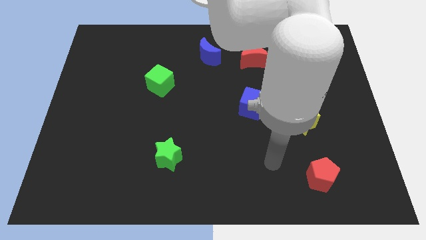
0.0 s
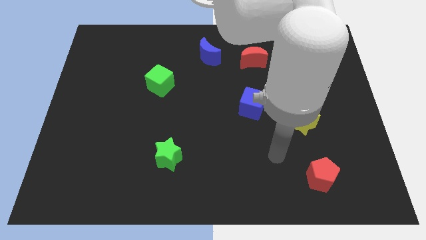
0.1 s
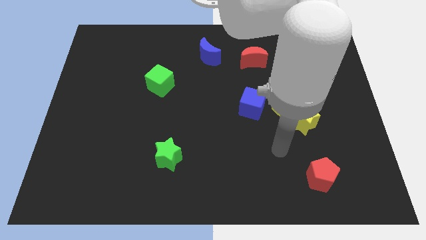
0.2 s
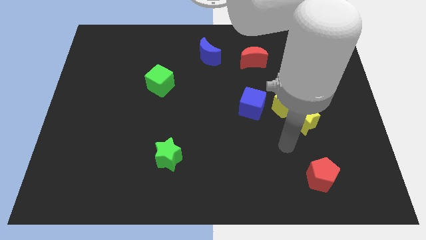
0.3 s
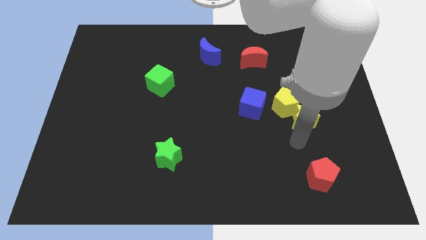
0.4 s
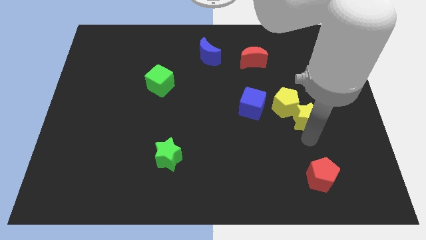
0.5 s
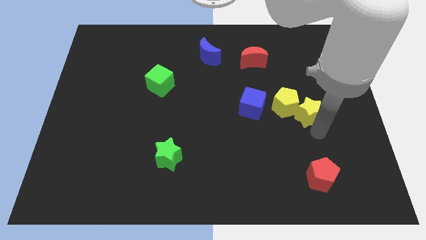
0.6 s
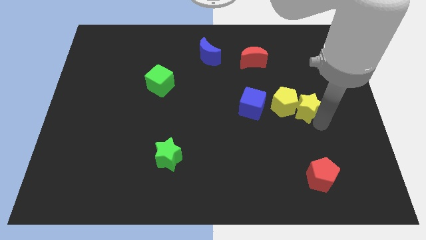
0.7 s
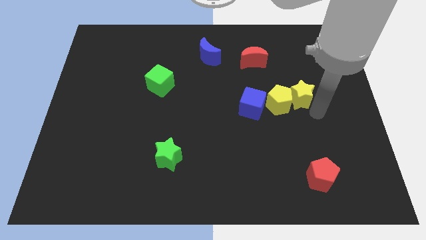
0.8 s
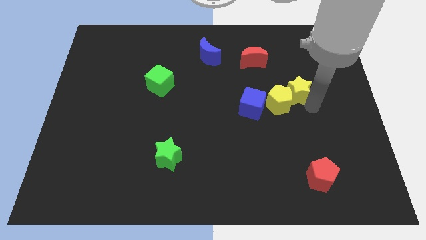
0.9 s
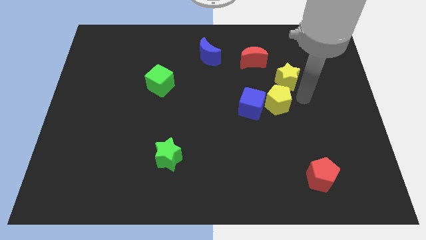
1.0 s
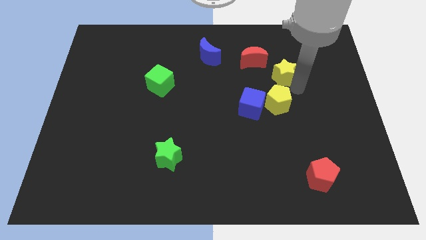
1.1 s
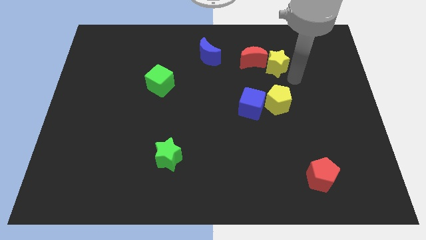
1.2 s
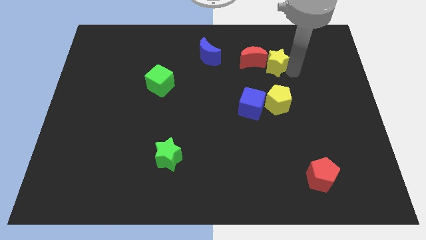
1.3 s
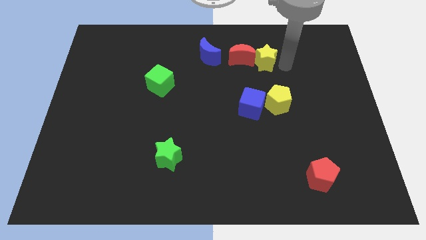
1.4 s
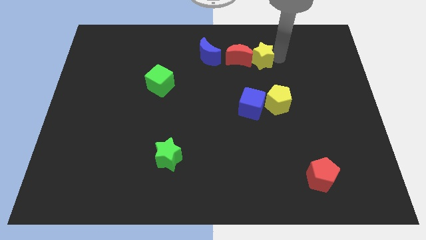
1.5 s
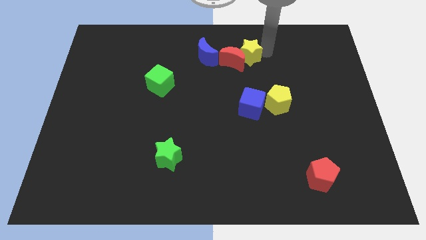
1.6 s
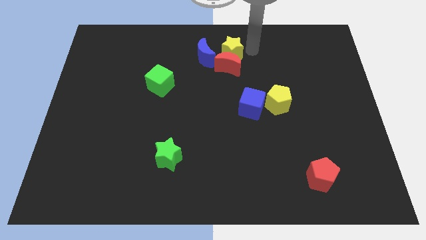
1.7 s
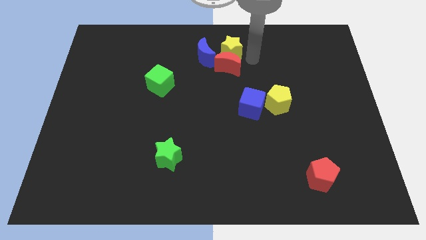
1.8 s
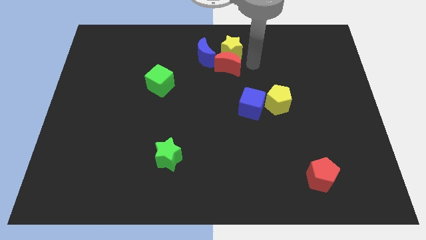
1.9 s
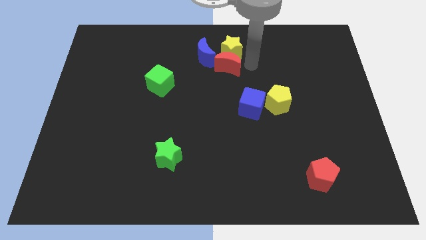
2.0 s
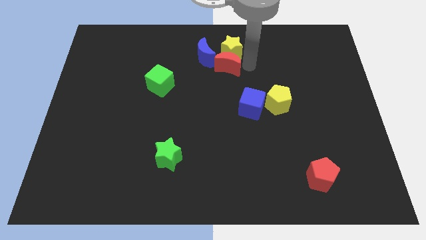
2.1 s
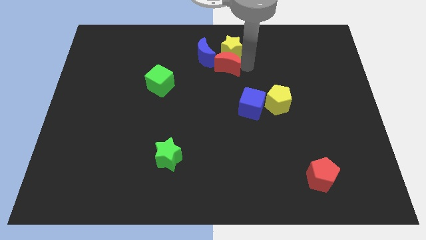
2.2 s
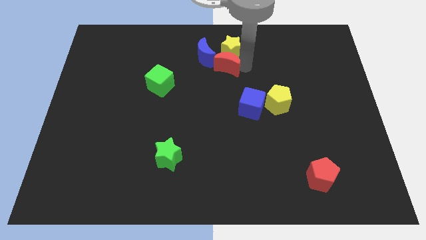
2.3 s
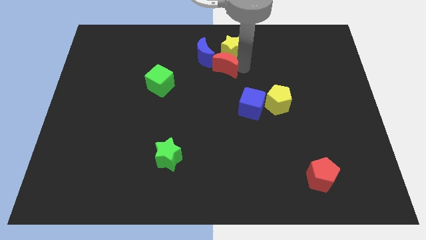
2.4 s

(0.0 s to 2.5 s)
slide the red moon somewhat left

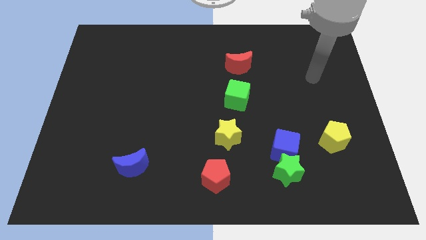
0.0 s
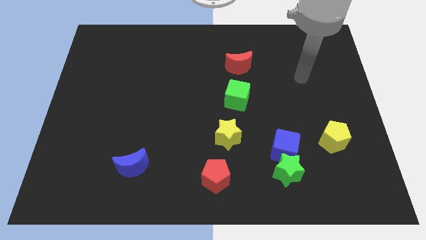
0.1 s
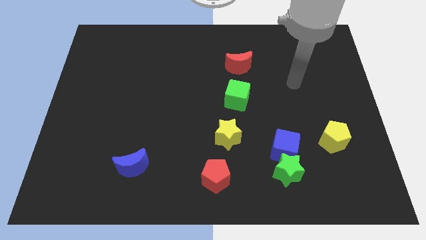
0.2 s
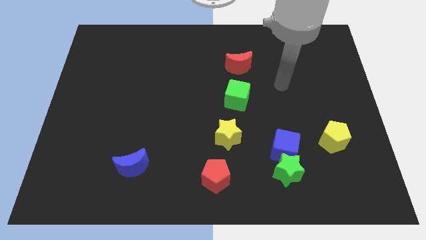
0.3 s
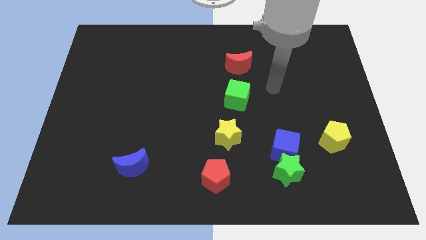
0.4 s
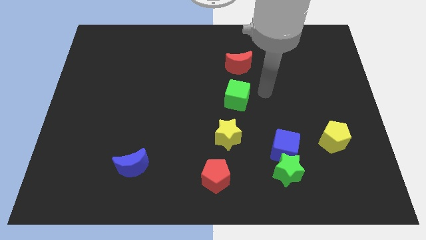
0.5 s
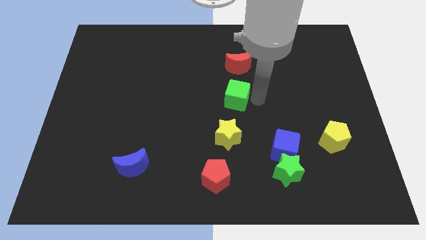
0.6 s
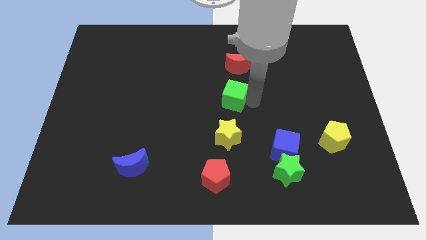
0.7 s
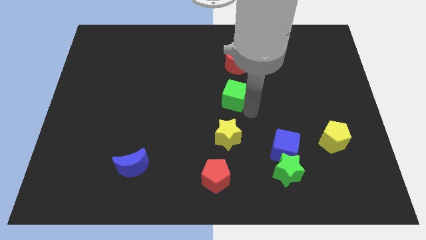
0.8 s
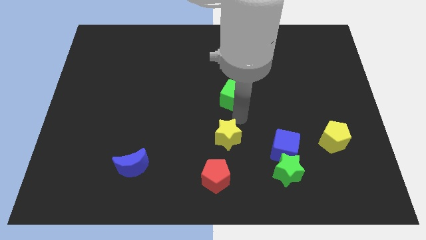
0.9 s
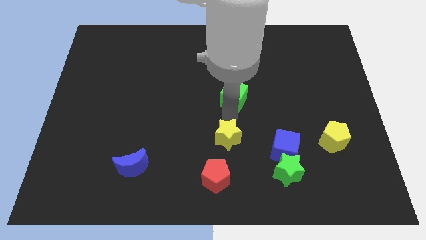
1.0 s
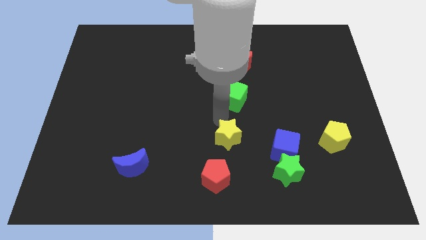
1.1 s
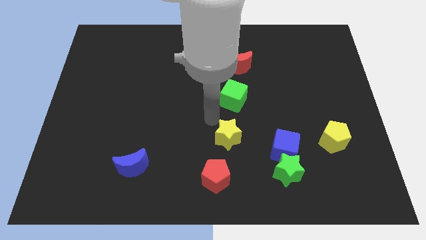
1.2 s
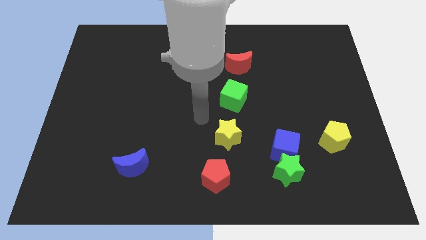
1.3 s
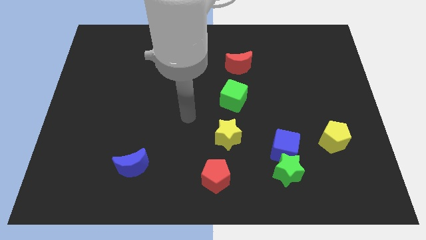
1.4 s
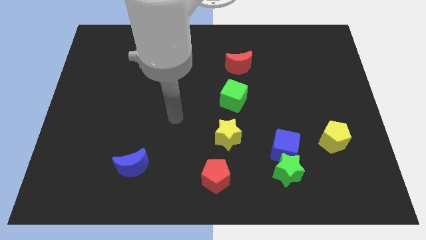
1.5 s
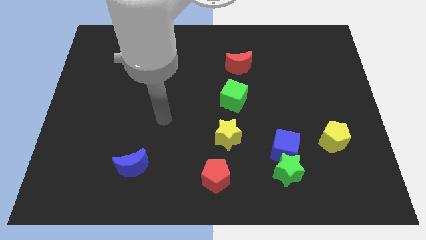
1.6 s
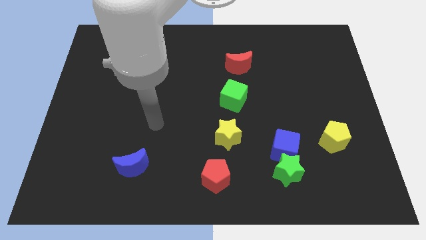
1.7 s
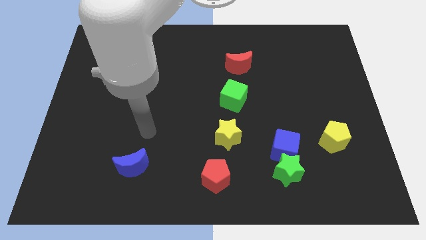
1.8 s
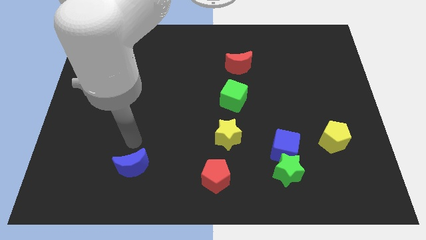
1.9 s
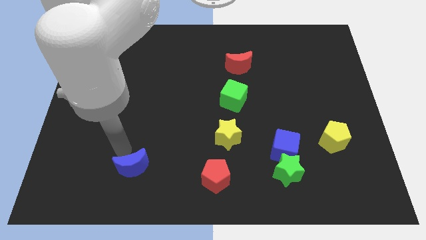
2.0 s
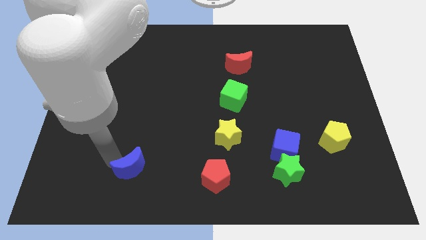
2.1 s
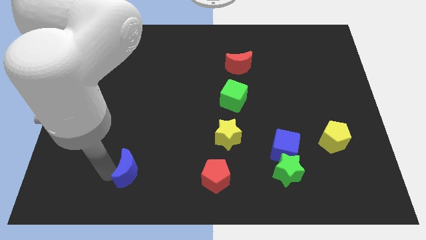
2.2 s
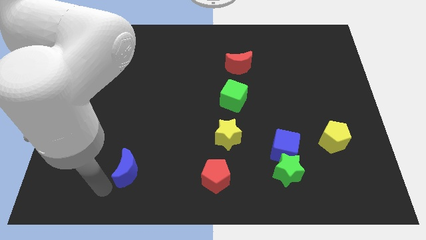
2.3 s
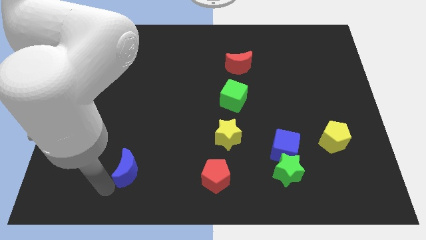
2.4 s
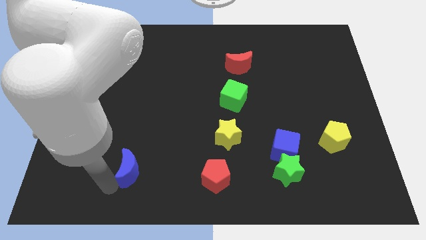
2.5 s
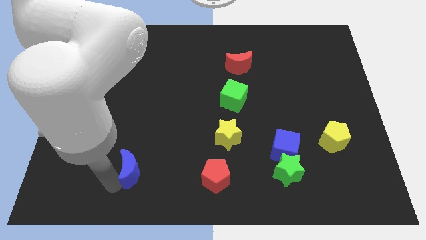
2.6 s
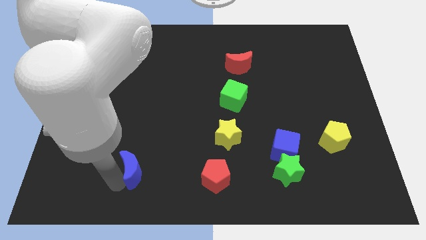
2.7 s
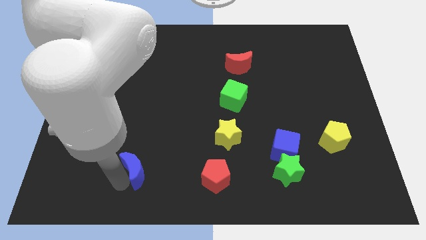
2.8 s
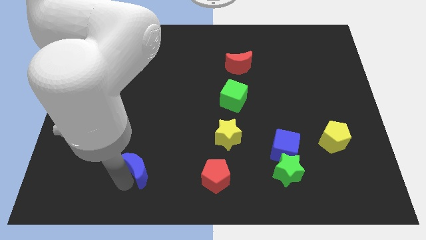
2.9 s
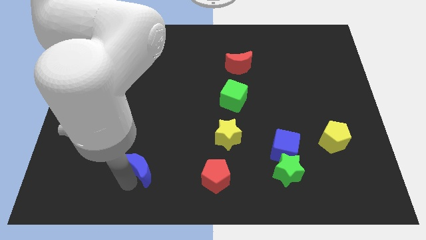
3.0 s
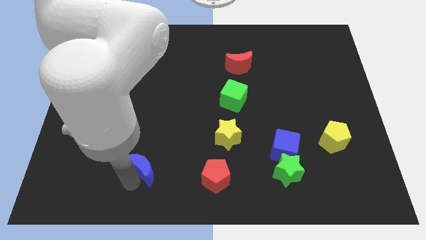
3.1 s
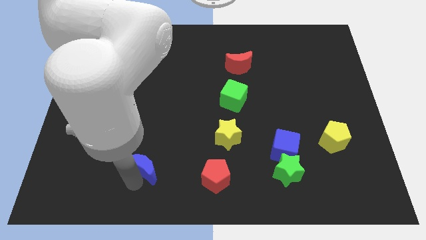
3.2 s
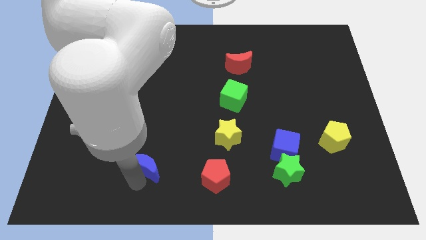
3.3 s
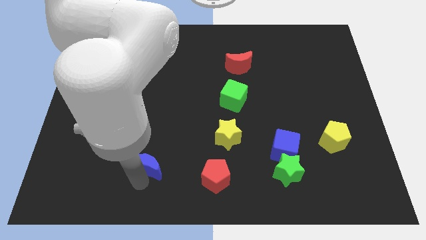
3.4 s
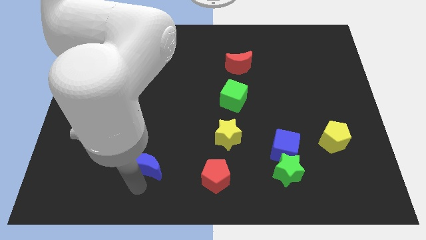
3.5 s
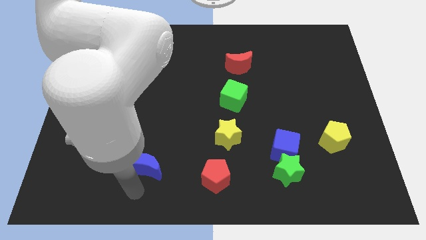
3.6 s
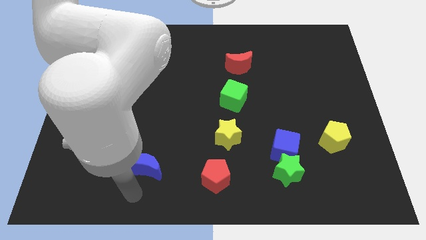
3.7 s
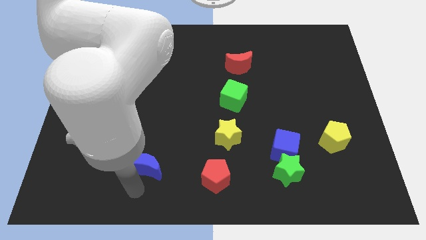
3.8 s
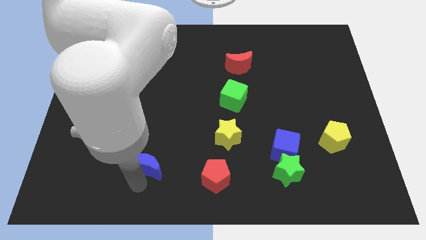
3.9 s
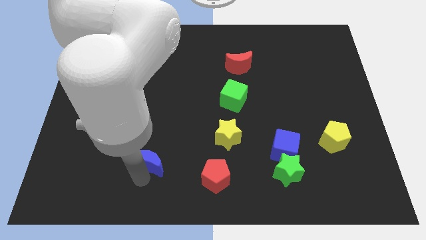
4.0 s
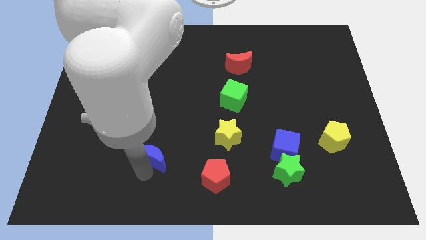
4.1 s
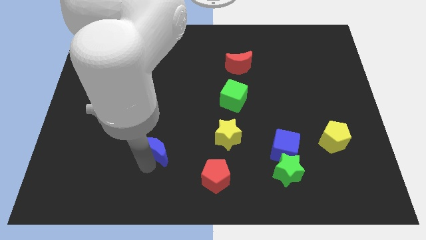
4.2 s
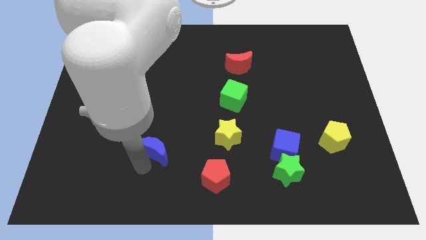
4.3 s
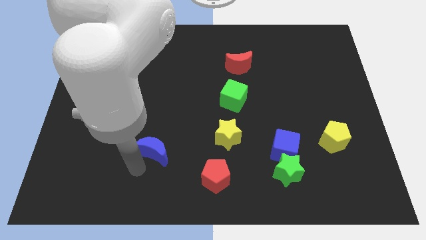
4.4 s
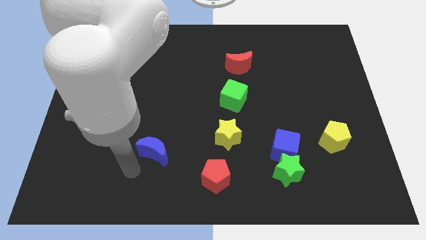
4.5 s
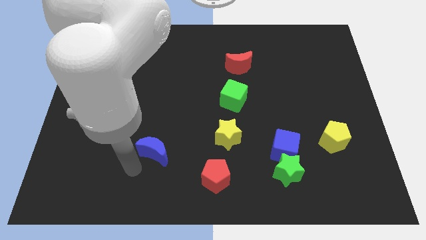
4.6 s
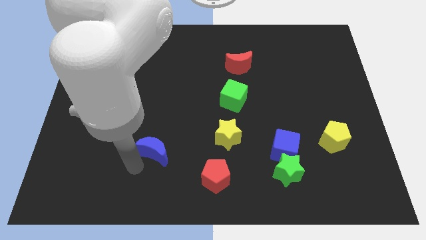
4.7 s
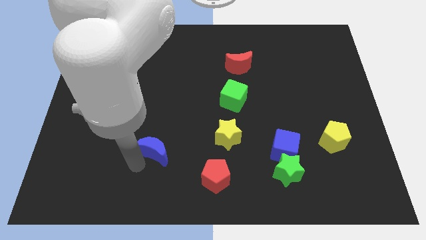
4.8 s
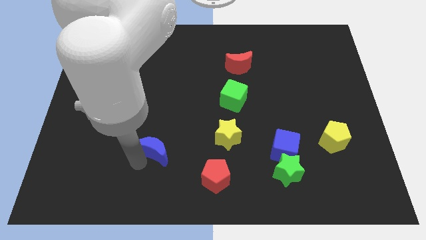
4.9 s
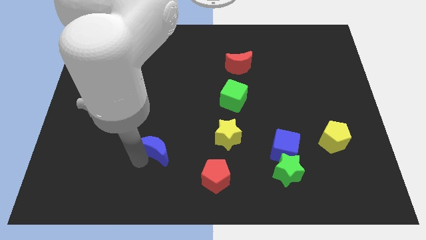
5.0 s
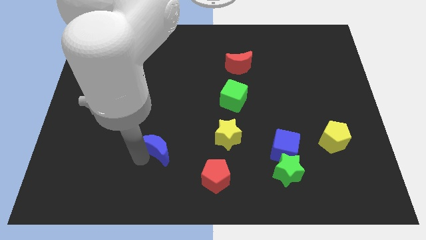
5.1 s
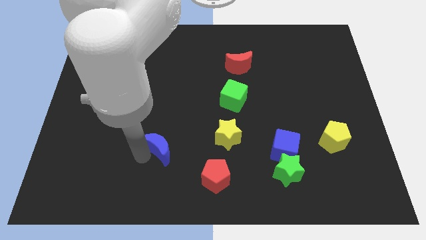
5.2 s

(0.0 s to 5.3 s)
slightly slide the blue moon upwards and right diagonally
